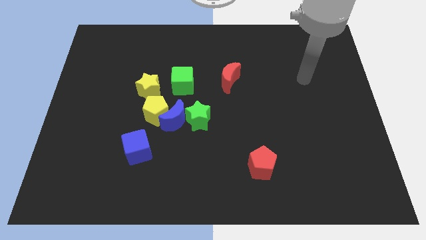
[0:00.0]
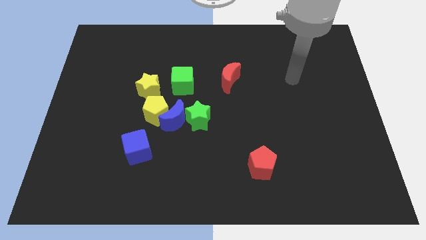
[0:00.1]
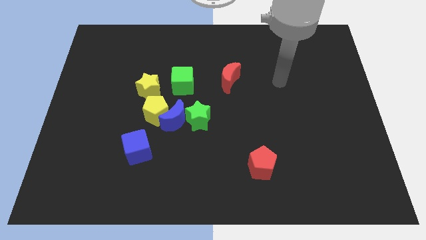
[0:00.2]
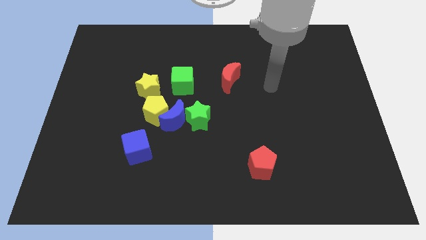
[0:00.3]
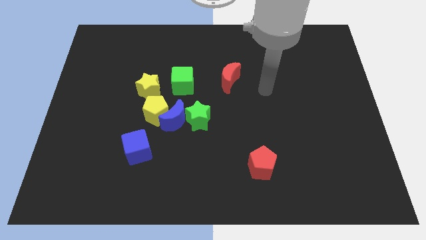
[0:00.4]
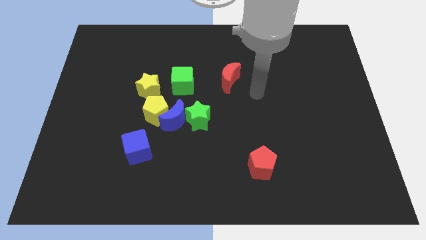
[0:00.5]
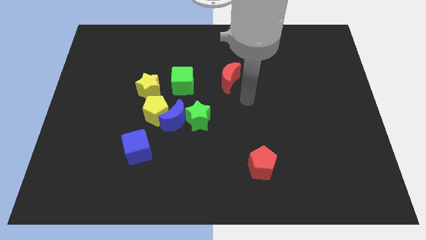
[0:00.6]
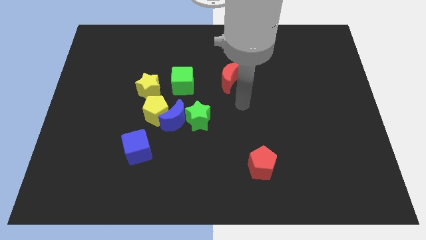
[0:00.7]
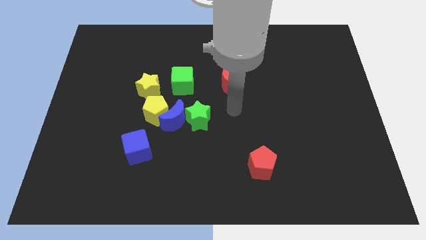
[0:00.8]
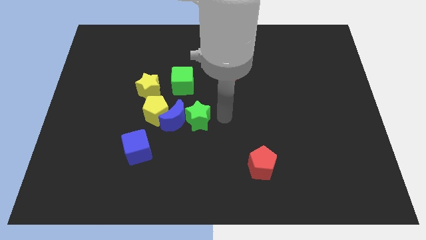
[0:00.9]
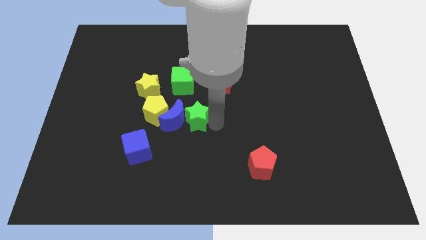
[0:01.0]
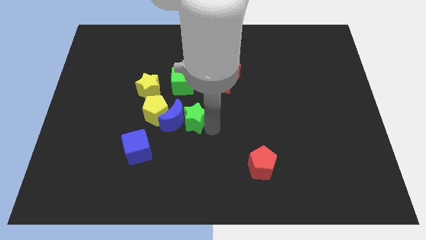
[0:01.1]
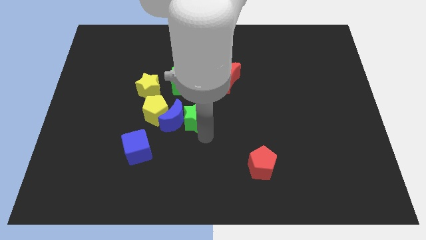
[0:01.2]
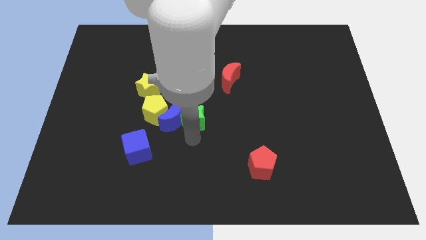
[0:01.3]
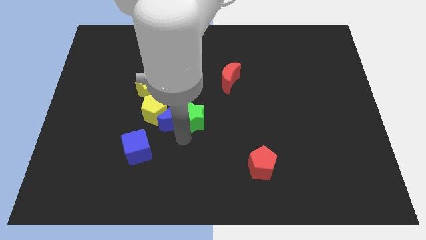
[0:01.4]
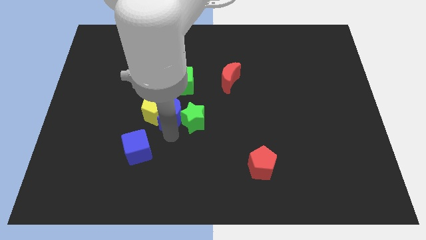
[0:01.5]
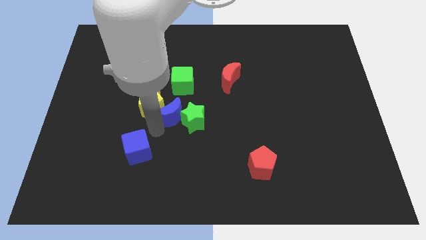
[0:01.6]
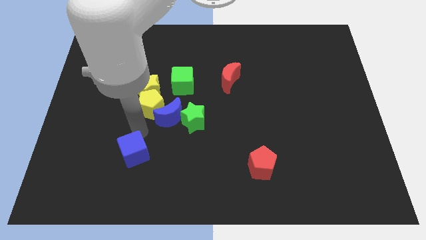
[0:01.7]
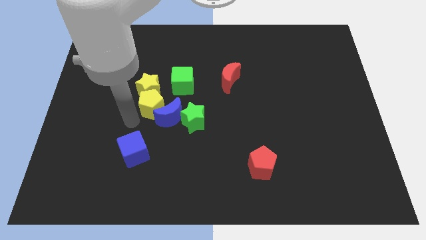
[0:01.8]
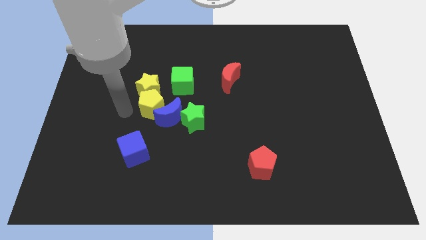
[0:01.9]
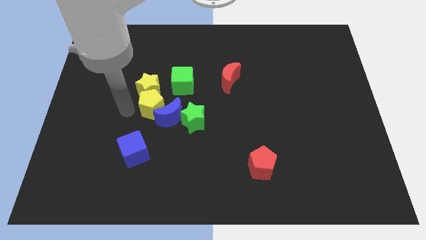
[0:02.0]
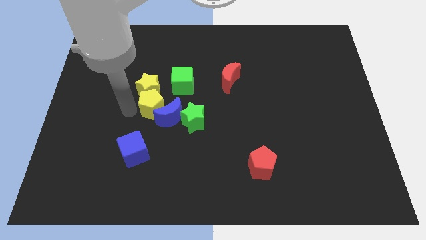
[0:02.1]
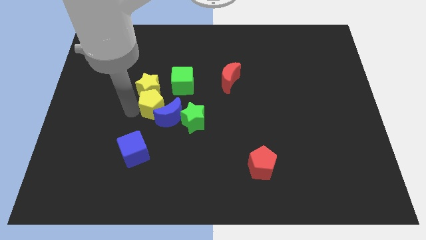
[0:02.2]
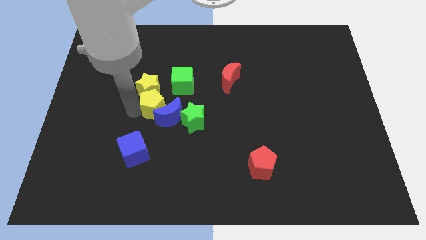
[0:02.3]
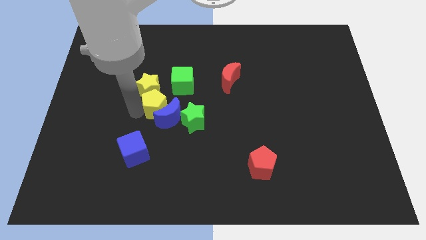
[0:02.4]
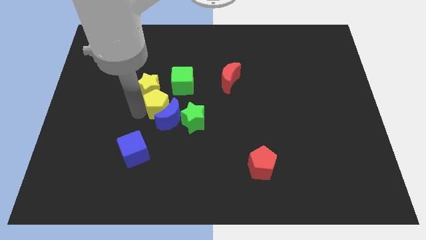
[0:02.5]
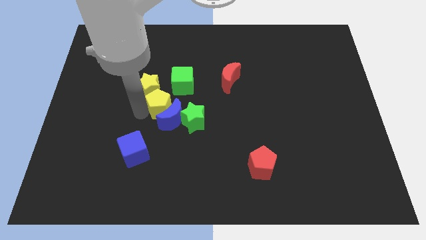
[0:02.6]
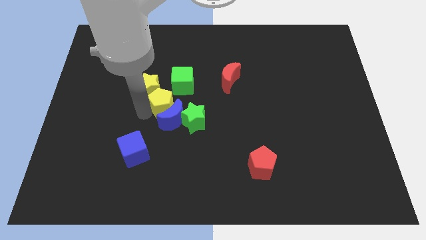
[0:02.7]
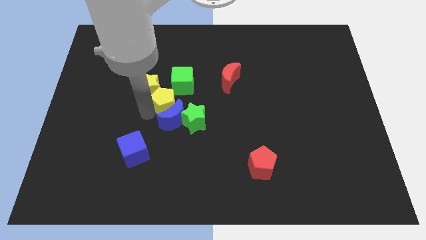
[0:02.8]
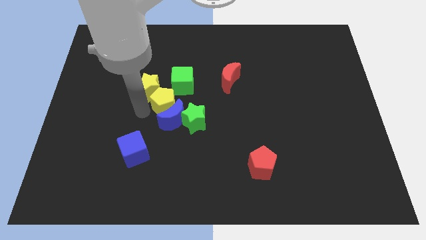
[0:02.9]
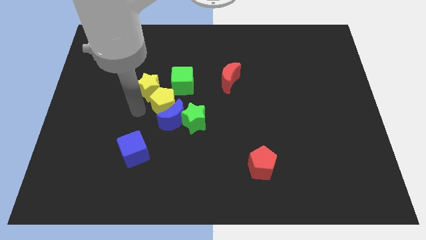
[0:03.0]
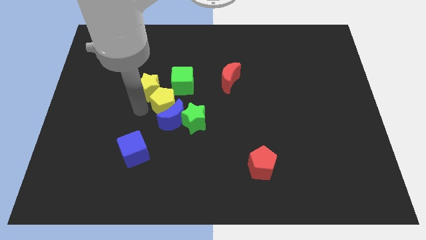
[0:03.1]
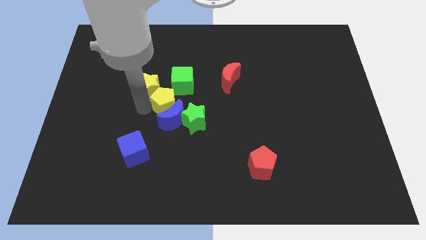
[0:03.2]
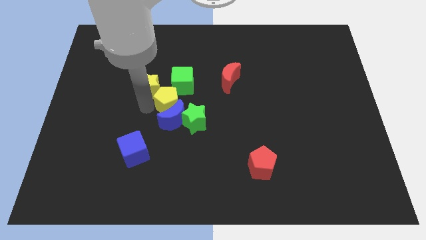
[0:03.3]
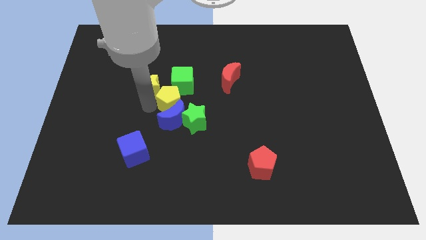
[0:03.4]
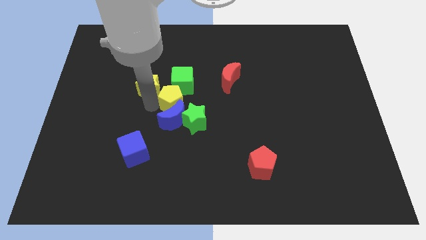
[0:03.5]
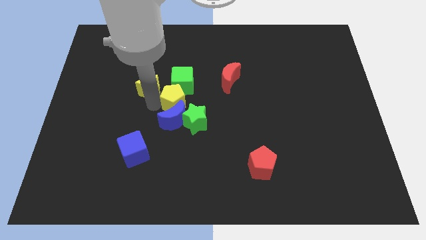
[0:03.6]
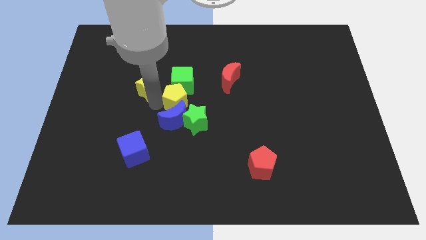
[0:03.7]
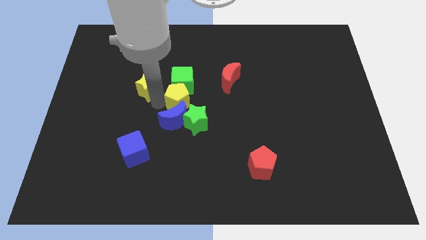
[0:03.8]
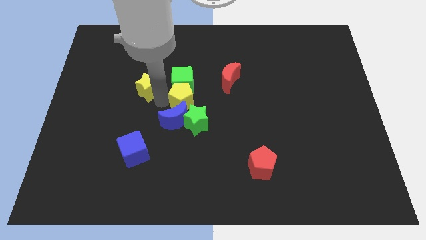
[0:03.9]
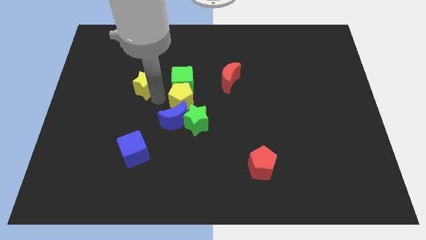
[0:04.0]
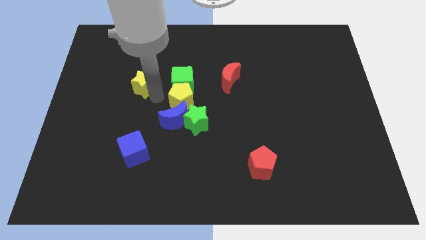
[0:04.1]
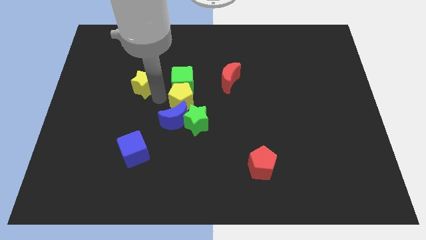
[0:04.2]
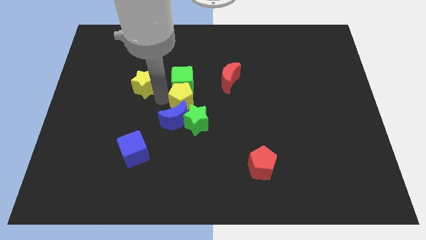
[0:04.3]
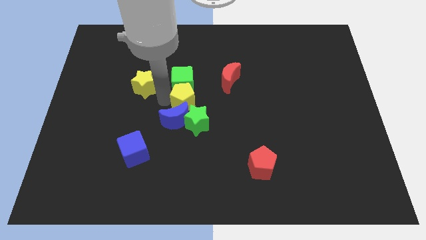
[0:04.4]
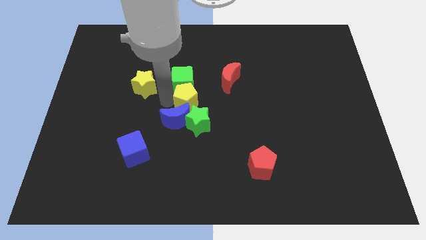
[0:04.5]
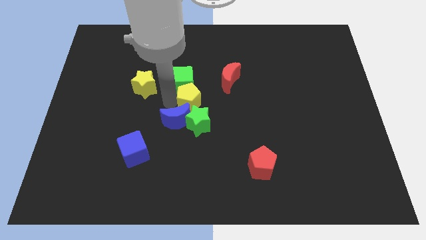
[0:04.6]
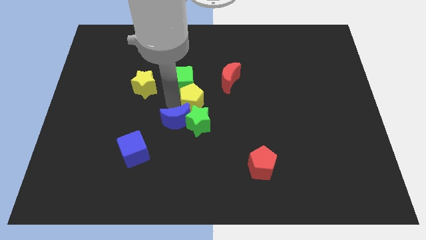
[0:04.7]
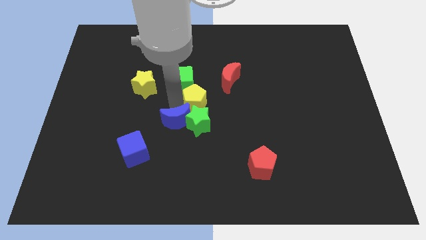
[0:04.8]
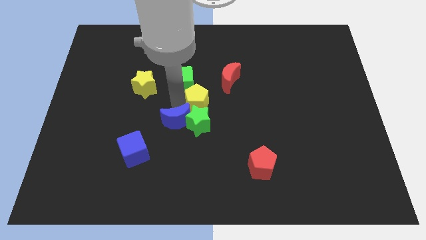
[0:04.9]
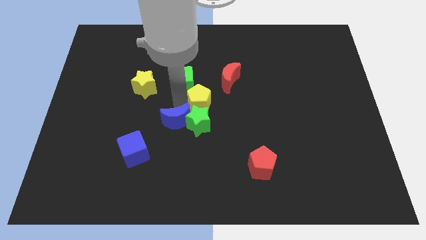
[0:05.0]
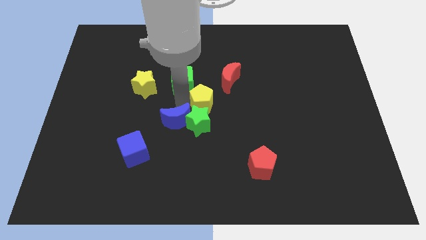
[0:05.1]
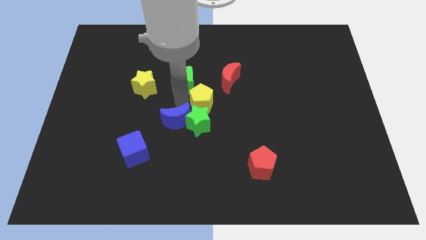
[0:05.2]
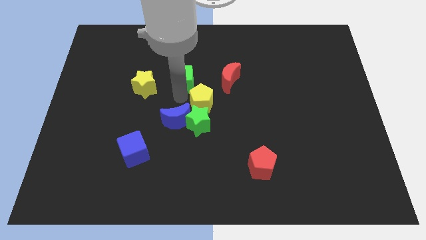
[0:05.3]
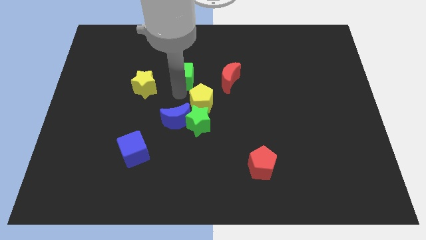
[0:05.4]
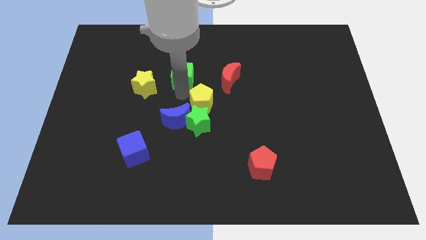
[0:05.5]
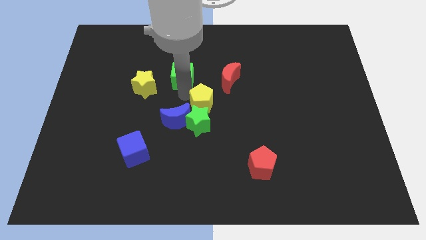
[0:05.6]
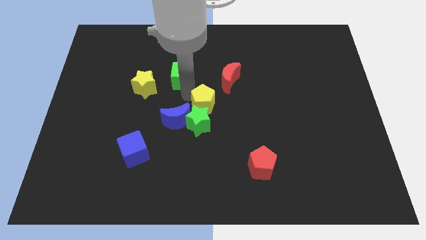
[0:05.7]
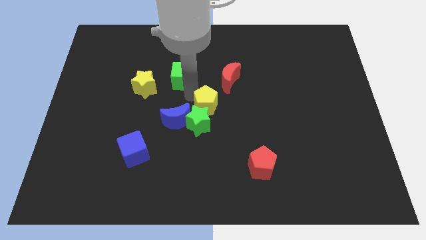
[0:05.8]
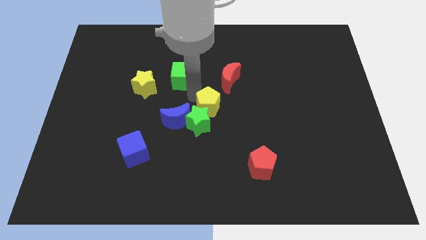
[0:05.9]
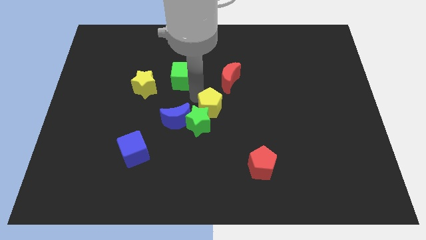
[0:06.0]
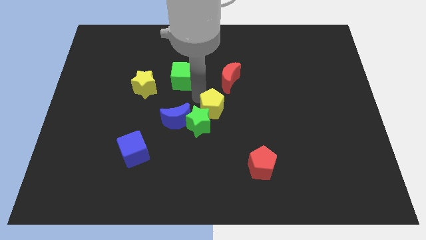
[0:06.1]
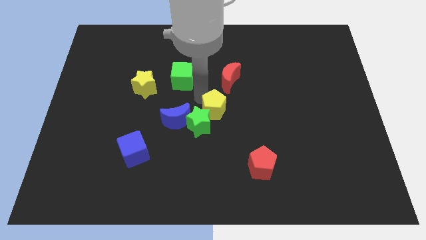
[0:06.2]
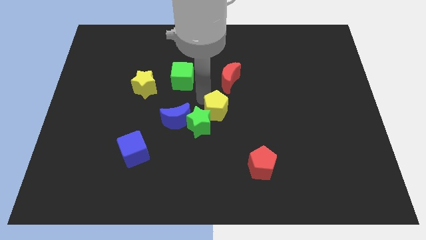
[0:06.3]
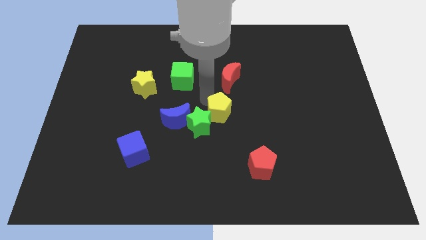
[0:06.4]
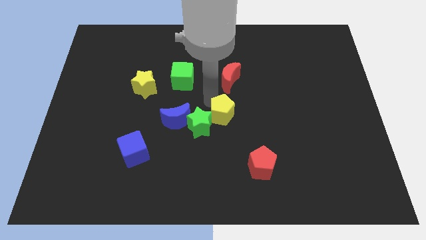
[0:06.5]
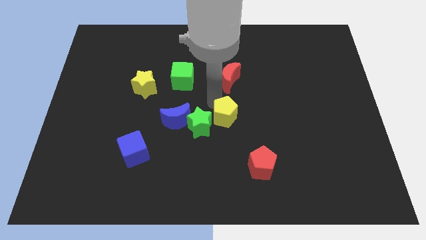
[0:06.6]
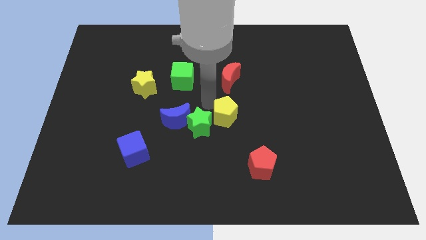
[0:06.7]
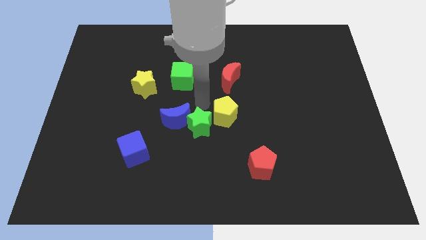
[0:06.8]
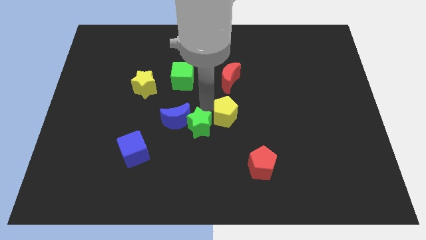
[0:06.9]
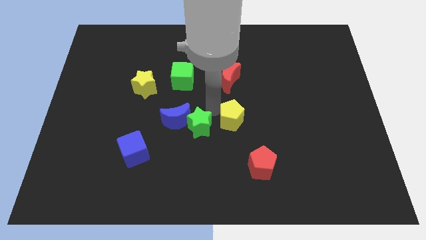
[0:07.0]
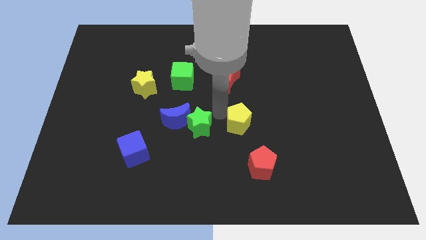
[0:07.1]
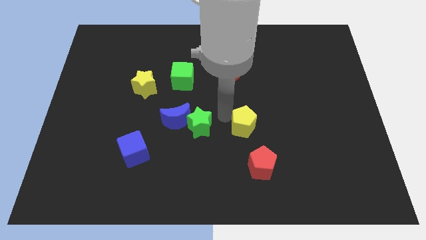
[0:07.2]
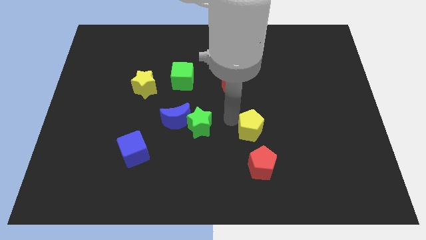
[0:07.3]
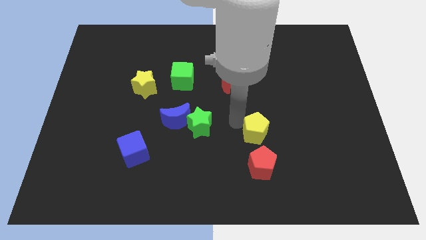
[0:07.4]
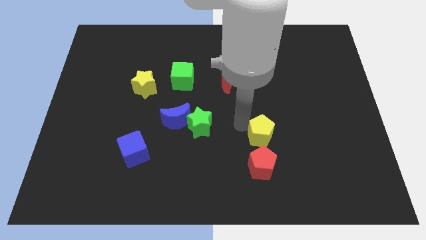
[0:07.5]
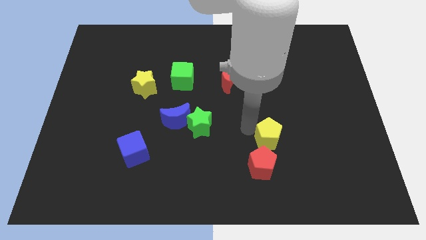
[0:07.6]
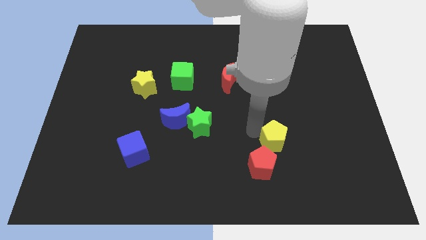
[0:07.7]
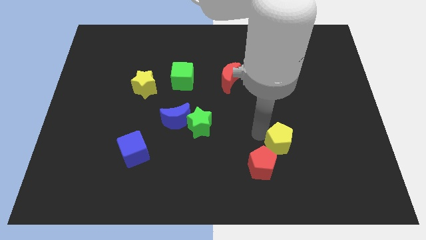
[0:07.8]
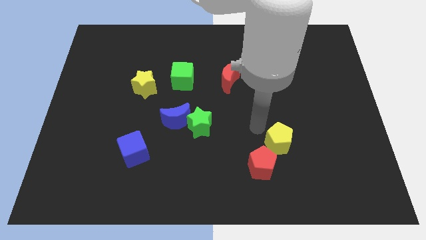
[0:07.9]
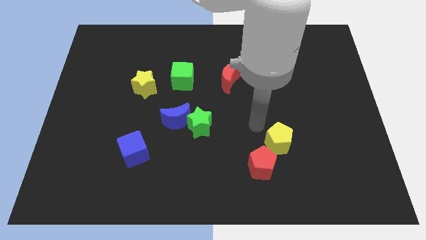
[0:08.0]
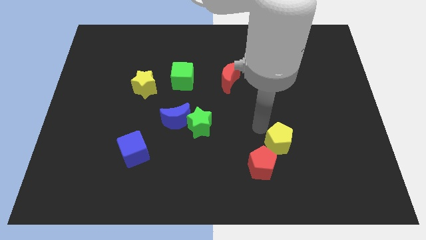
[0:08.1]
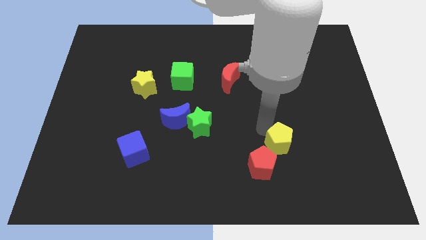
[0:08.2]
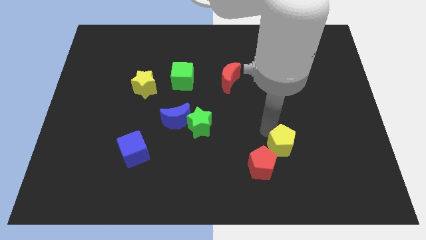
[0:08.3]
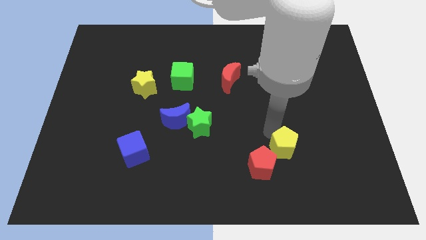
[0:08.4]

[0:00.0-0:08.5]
move the yellow pentagon just right of the red pentagon
